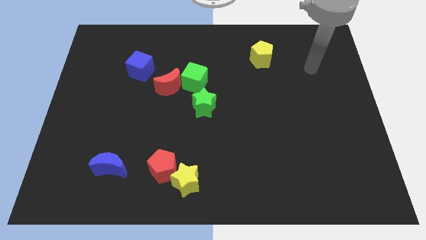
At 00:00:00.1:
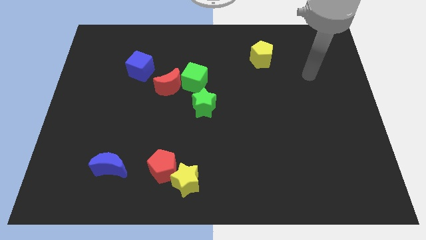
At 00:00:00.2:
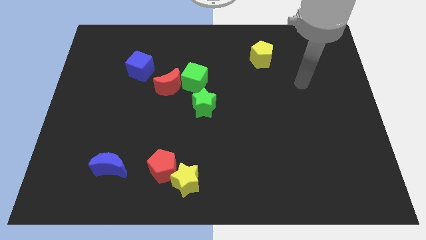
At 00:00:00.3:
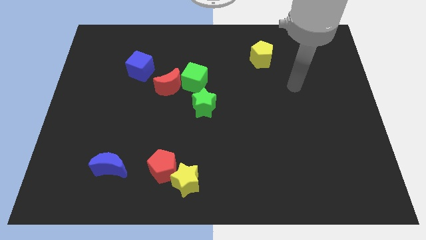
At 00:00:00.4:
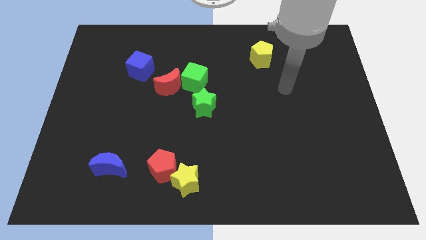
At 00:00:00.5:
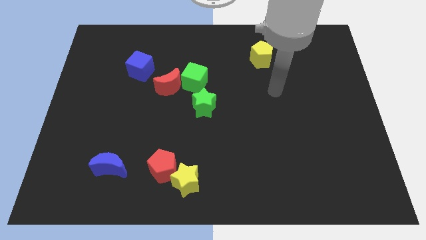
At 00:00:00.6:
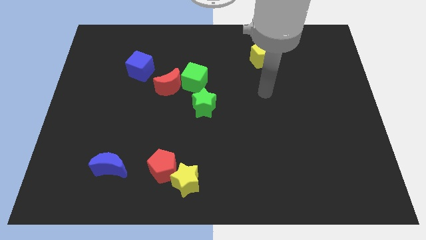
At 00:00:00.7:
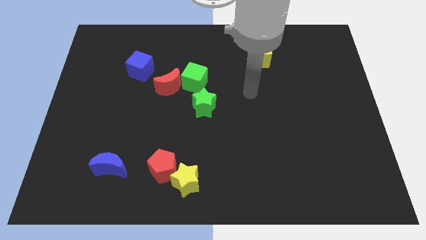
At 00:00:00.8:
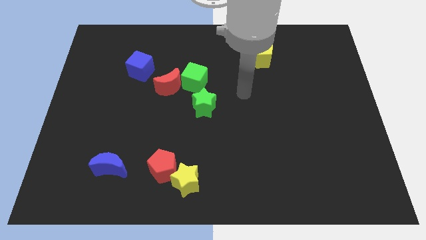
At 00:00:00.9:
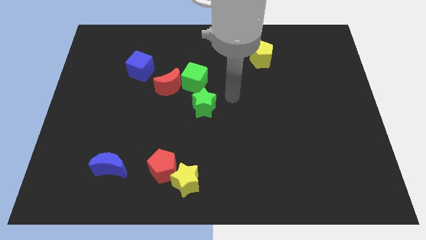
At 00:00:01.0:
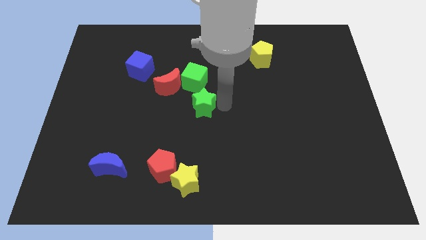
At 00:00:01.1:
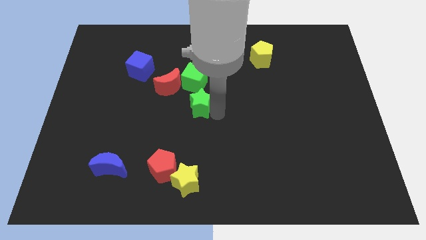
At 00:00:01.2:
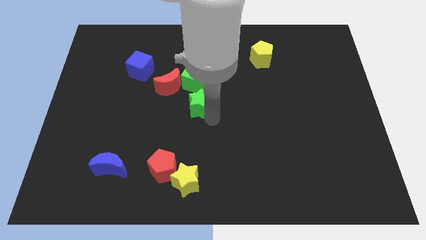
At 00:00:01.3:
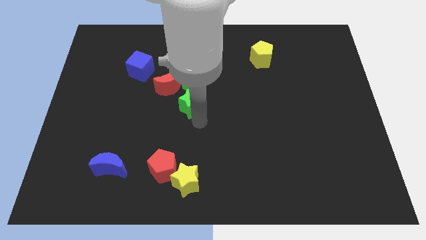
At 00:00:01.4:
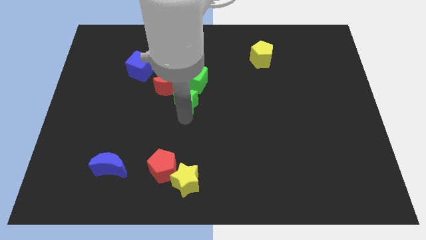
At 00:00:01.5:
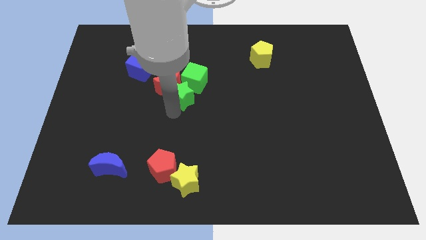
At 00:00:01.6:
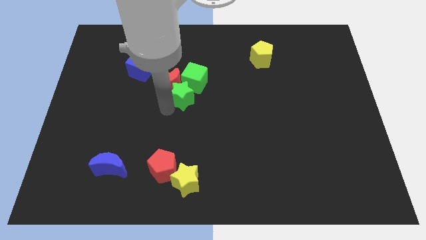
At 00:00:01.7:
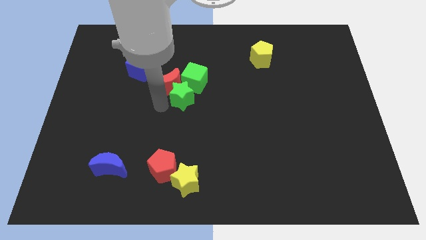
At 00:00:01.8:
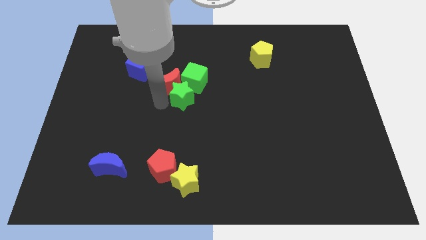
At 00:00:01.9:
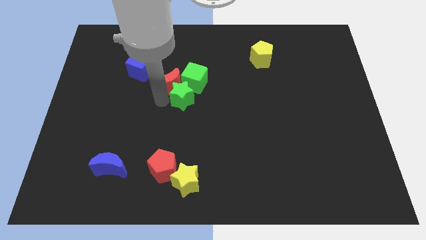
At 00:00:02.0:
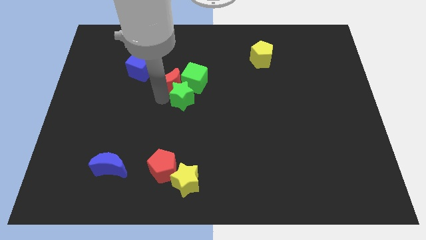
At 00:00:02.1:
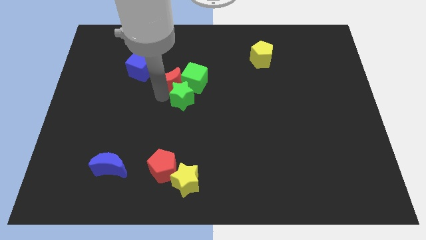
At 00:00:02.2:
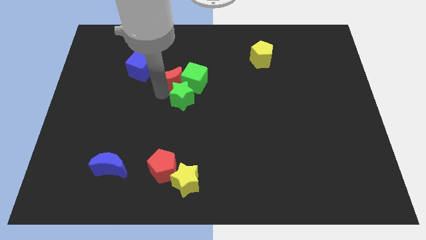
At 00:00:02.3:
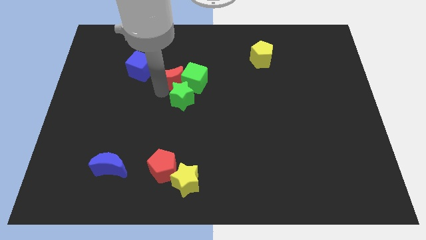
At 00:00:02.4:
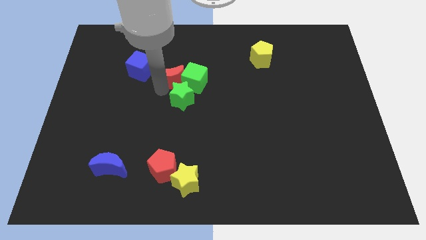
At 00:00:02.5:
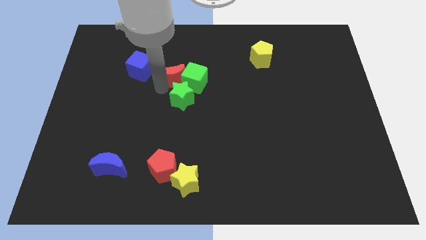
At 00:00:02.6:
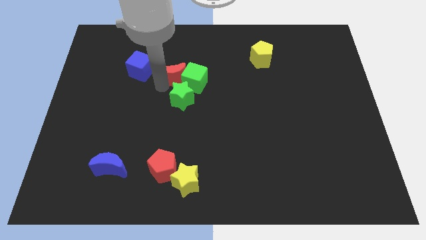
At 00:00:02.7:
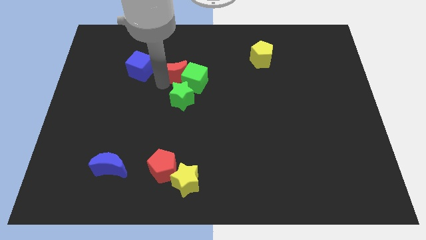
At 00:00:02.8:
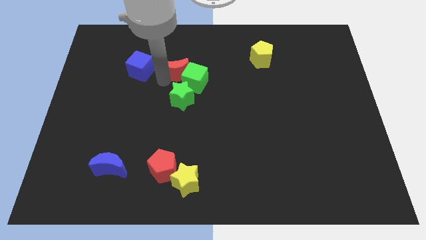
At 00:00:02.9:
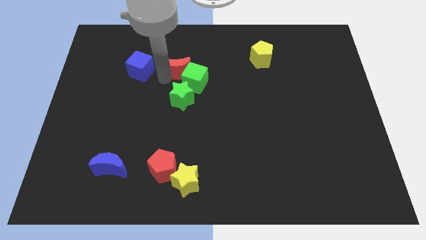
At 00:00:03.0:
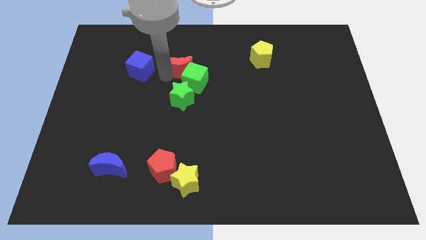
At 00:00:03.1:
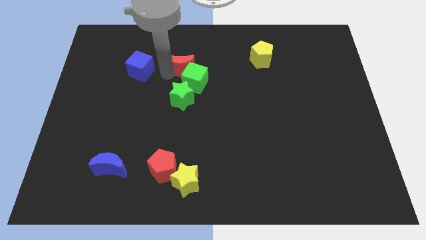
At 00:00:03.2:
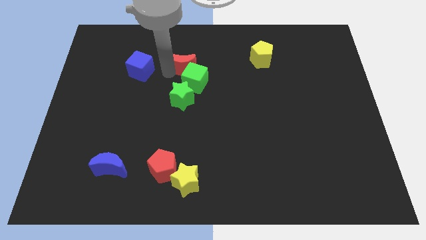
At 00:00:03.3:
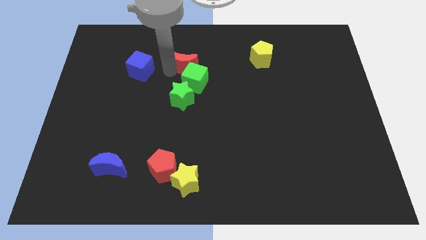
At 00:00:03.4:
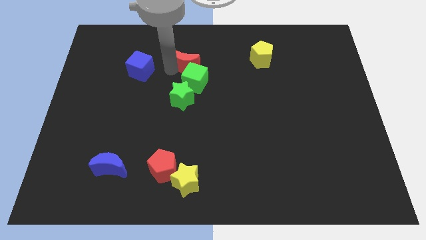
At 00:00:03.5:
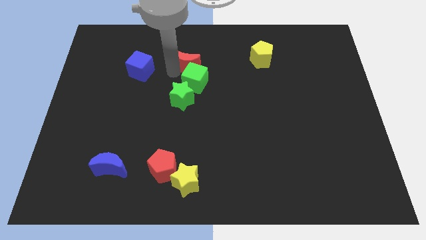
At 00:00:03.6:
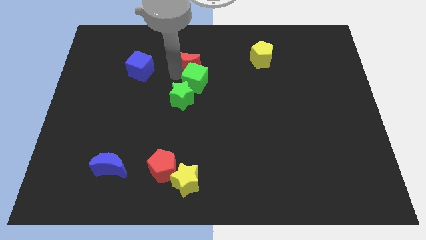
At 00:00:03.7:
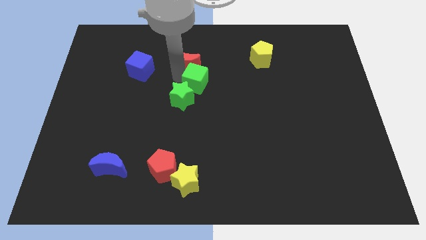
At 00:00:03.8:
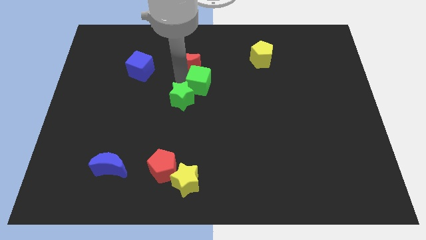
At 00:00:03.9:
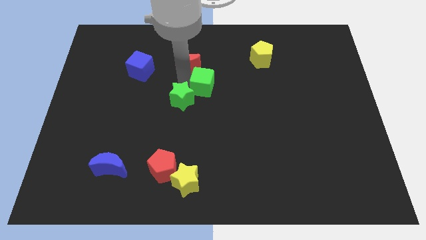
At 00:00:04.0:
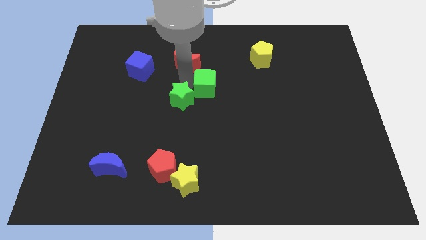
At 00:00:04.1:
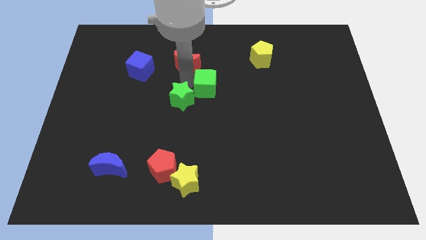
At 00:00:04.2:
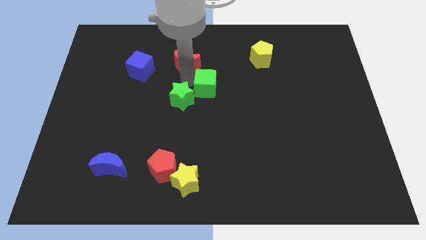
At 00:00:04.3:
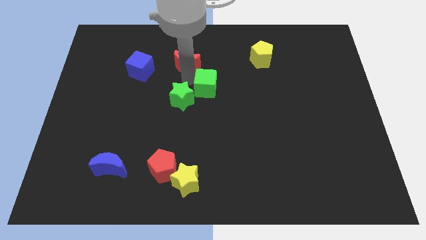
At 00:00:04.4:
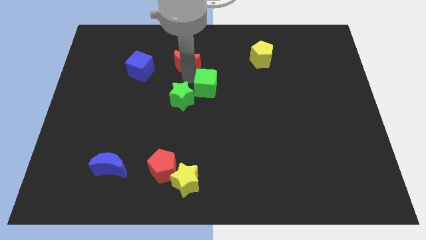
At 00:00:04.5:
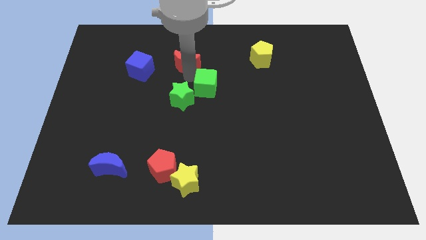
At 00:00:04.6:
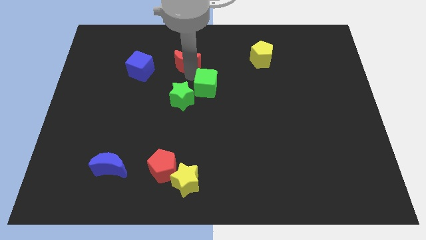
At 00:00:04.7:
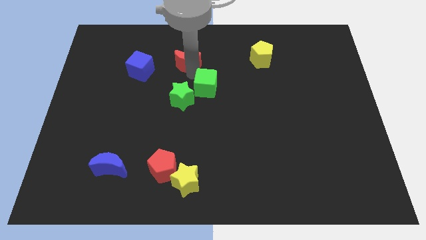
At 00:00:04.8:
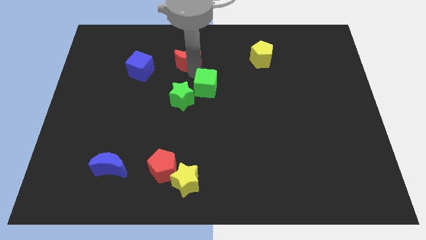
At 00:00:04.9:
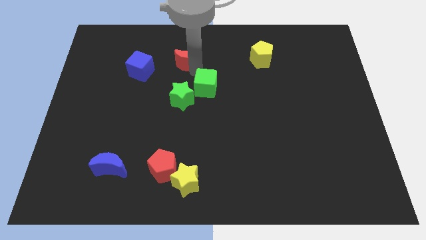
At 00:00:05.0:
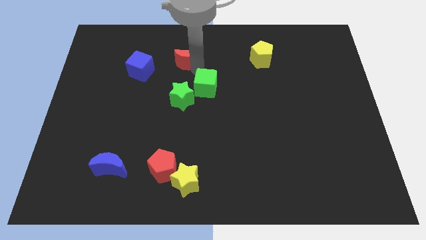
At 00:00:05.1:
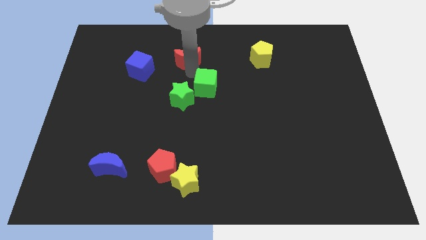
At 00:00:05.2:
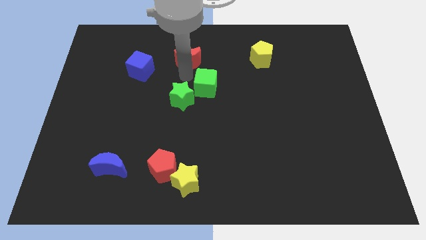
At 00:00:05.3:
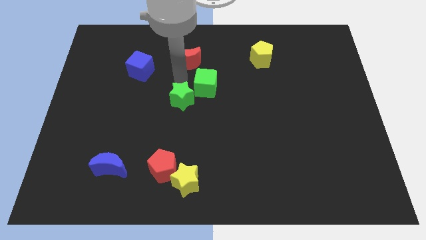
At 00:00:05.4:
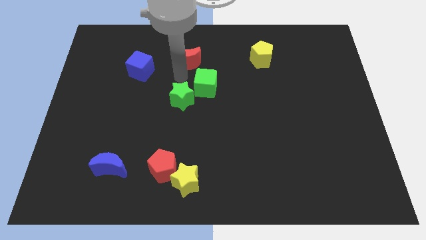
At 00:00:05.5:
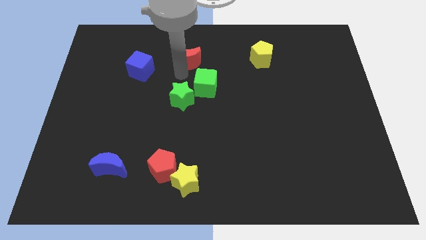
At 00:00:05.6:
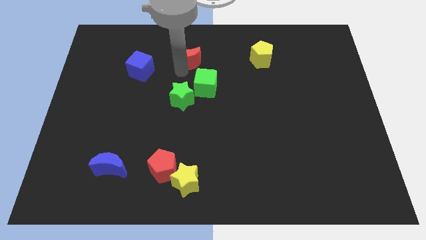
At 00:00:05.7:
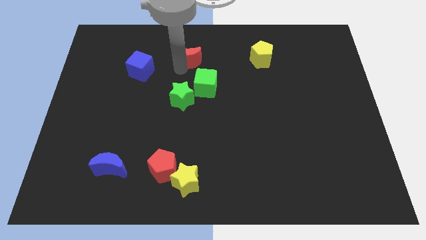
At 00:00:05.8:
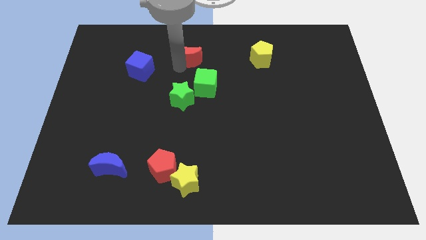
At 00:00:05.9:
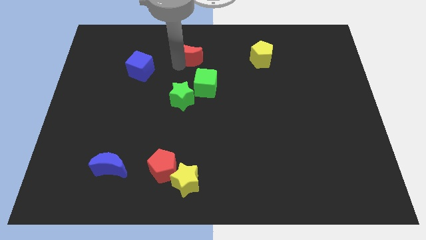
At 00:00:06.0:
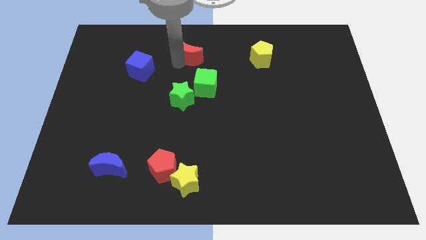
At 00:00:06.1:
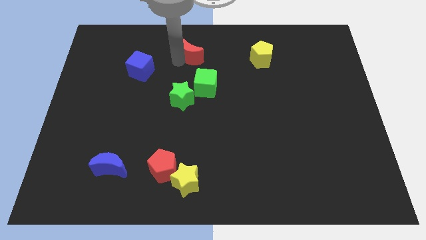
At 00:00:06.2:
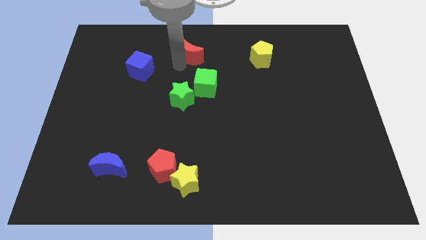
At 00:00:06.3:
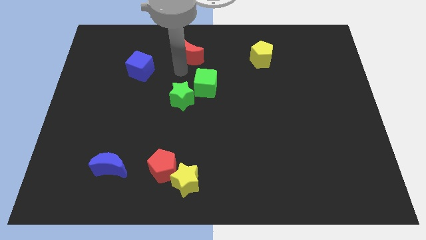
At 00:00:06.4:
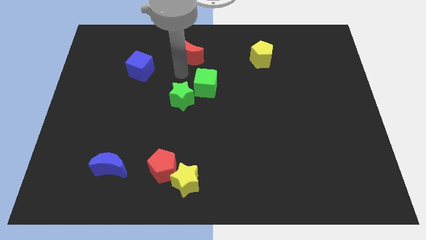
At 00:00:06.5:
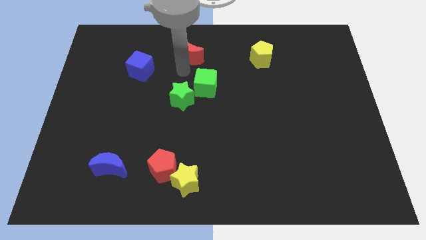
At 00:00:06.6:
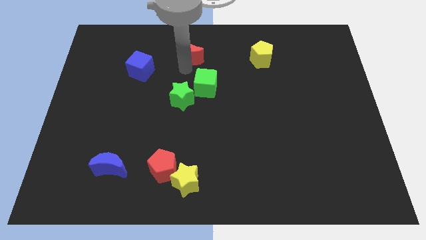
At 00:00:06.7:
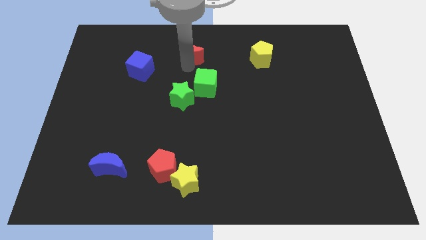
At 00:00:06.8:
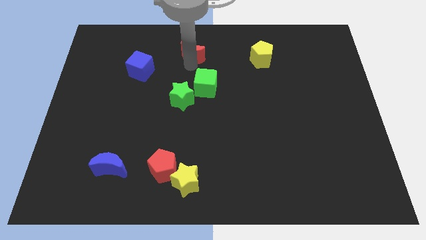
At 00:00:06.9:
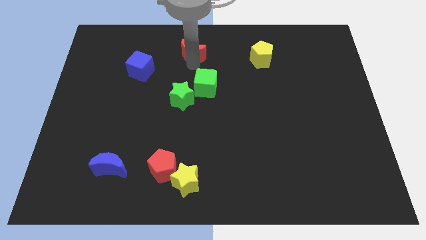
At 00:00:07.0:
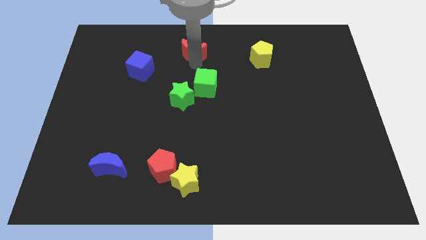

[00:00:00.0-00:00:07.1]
move the red moon to the towards your base
